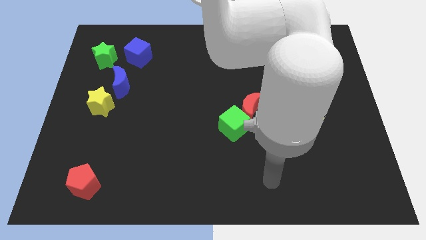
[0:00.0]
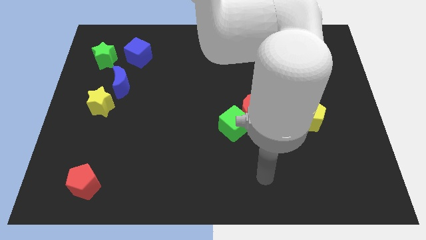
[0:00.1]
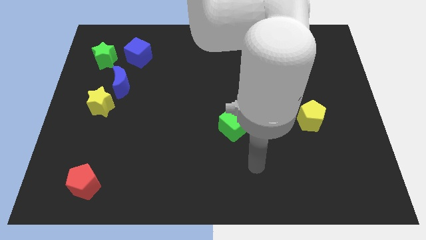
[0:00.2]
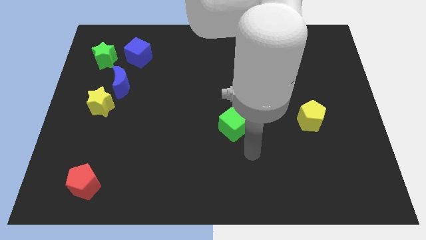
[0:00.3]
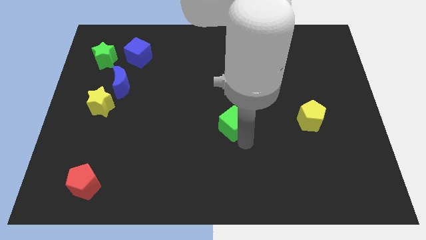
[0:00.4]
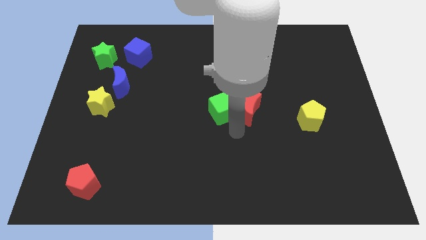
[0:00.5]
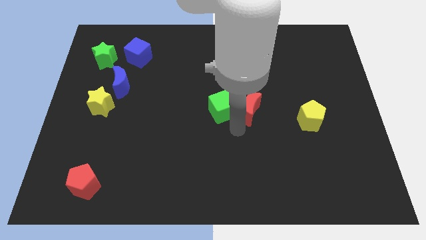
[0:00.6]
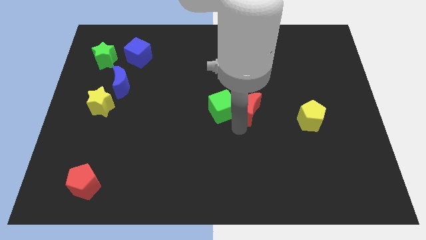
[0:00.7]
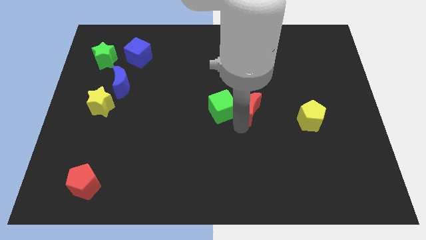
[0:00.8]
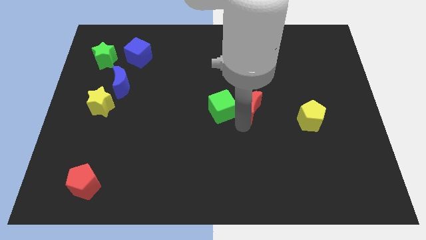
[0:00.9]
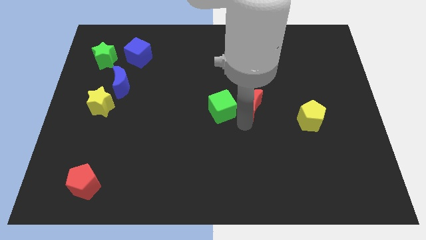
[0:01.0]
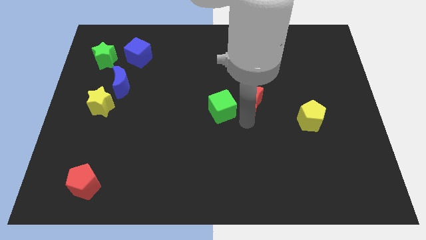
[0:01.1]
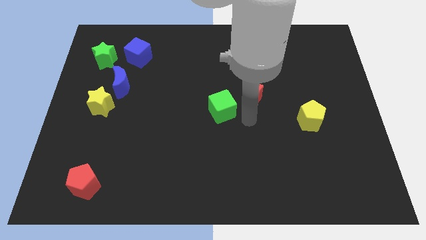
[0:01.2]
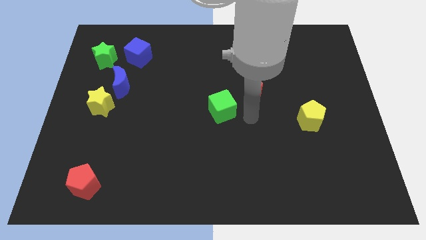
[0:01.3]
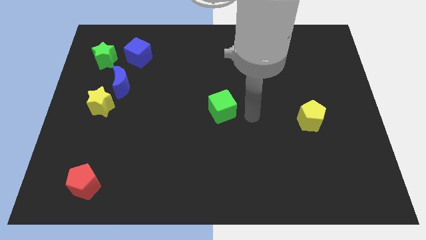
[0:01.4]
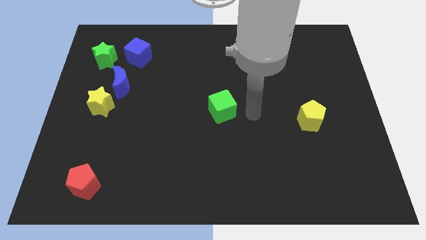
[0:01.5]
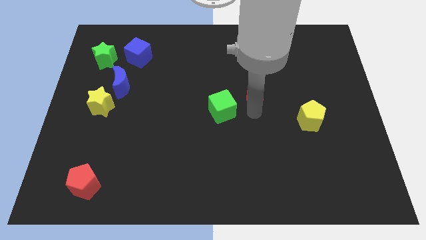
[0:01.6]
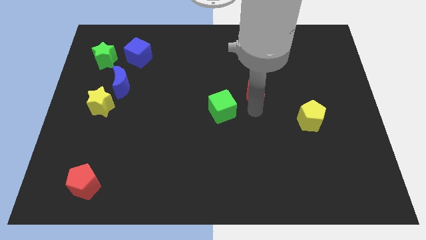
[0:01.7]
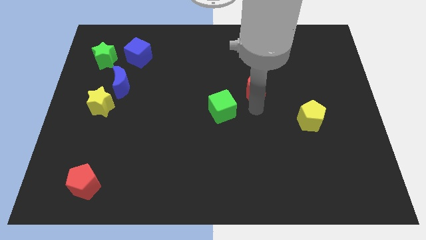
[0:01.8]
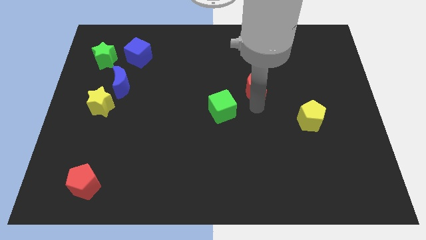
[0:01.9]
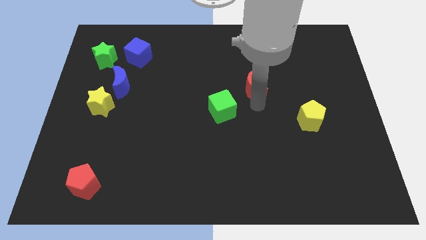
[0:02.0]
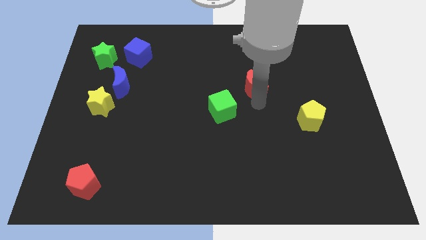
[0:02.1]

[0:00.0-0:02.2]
pull the red moon apart from the green cube

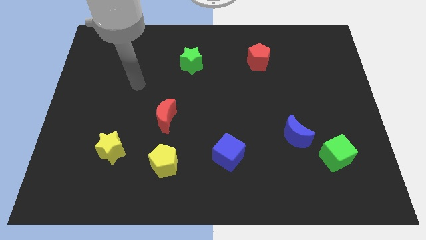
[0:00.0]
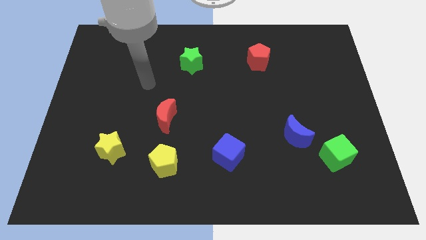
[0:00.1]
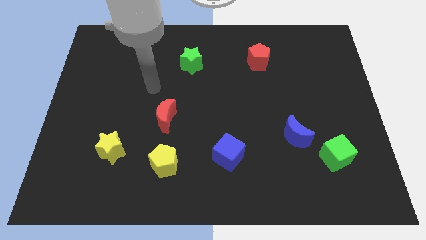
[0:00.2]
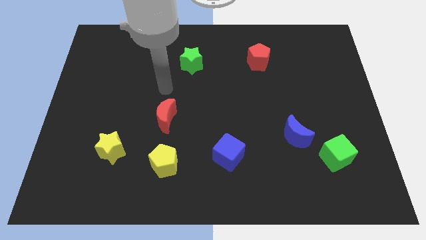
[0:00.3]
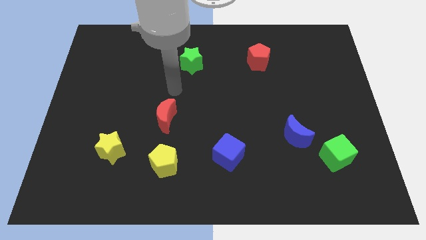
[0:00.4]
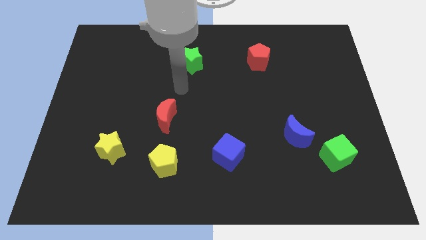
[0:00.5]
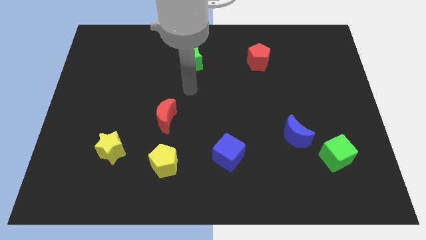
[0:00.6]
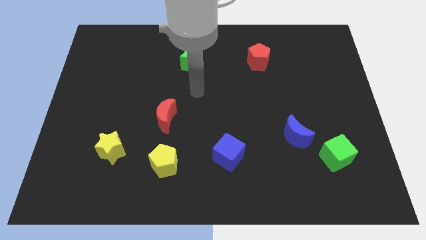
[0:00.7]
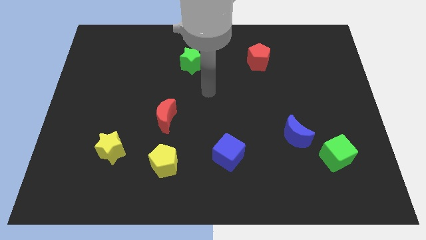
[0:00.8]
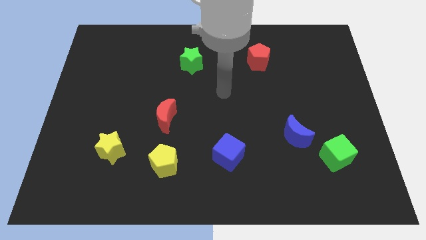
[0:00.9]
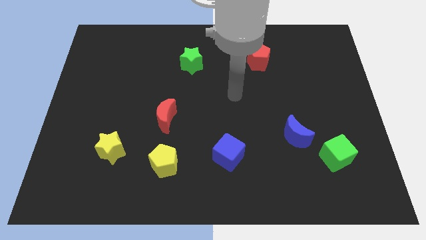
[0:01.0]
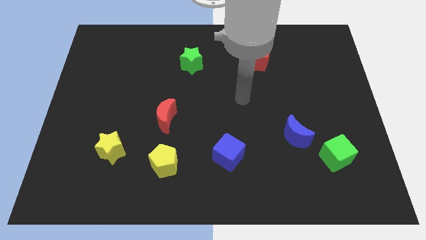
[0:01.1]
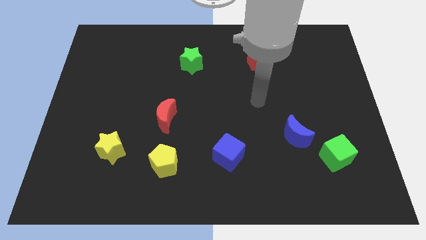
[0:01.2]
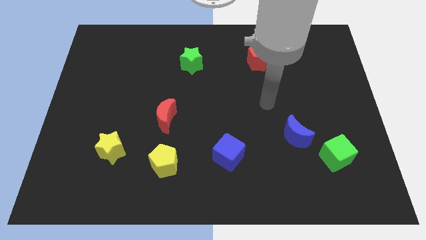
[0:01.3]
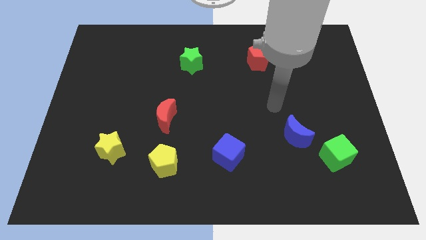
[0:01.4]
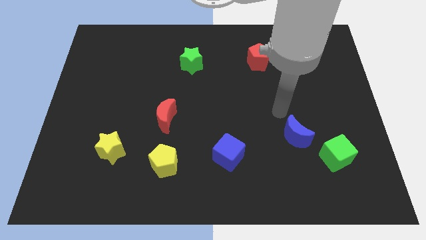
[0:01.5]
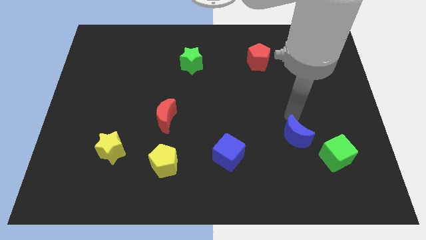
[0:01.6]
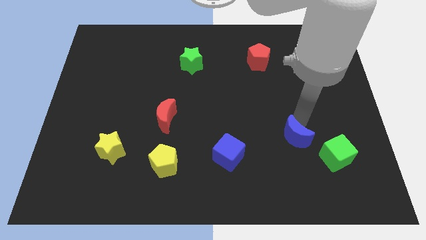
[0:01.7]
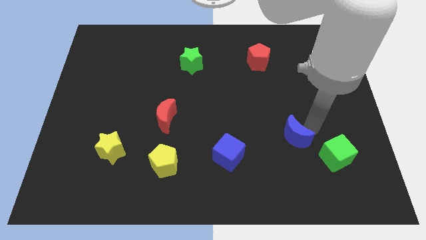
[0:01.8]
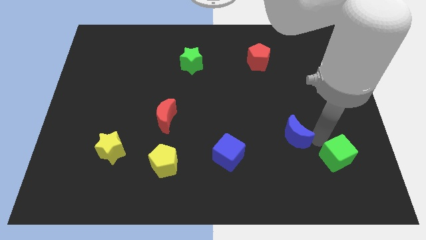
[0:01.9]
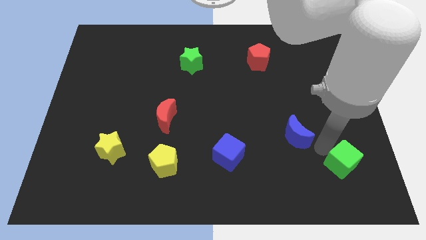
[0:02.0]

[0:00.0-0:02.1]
move the blue moon away from the green cube

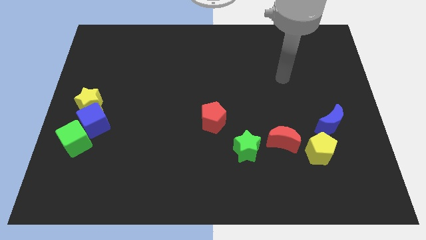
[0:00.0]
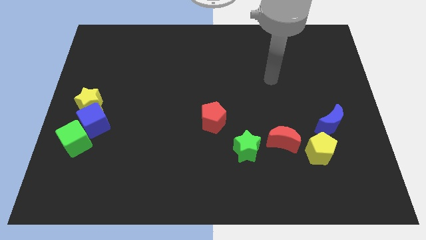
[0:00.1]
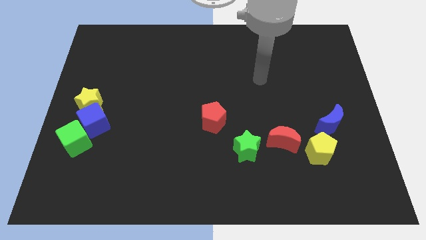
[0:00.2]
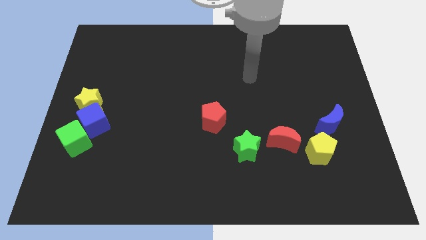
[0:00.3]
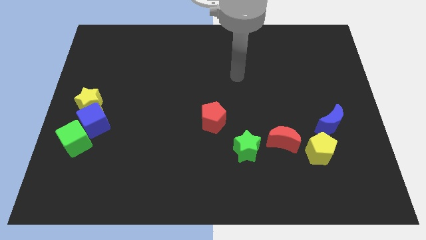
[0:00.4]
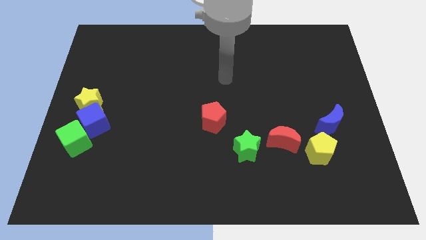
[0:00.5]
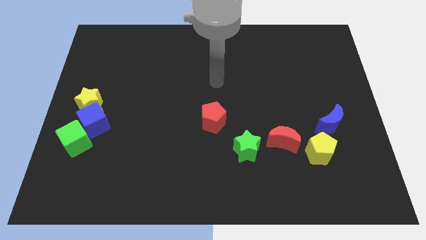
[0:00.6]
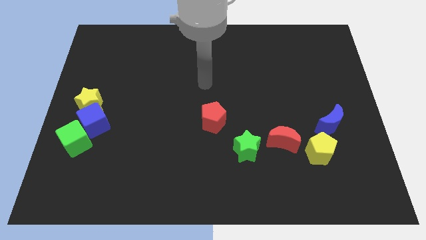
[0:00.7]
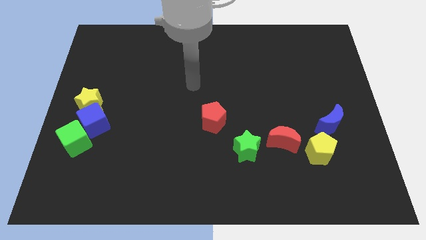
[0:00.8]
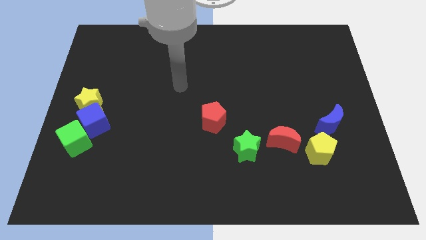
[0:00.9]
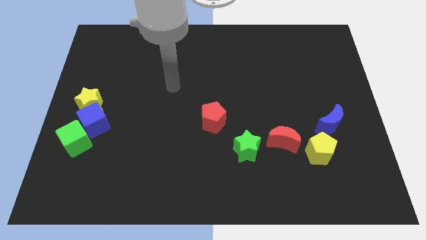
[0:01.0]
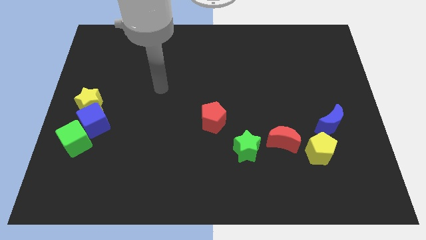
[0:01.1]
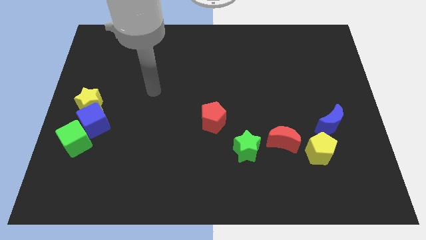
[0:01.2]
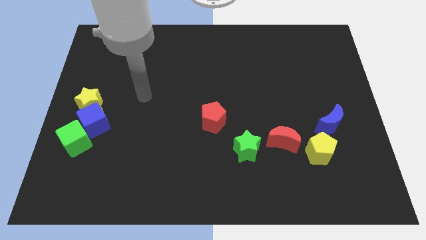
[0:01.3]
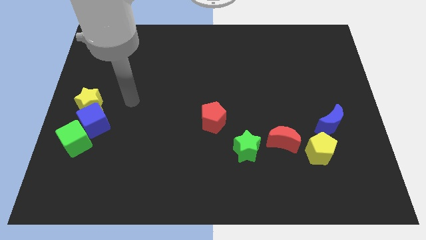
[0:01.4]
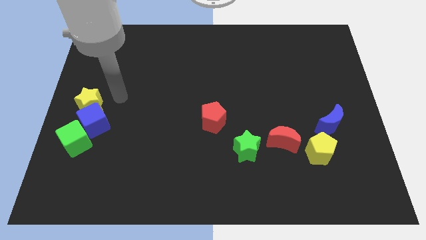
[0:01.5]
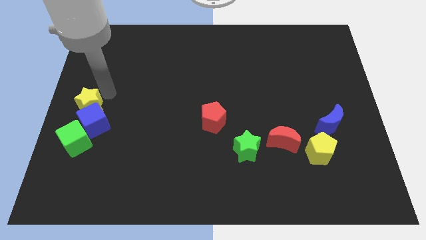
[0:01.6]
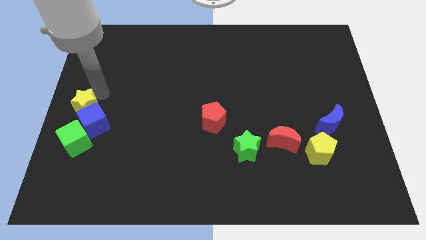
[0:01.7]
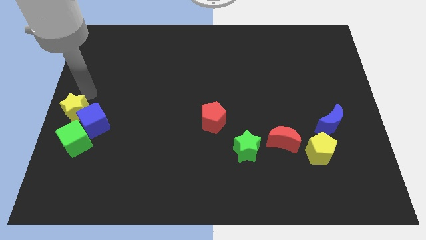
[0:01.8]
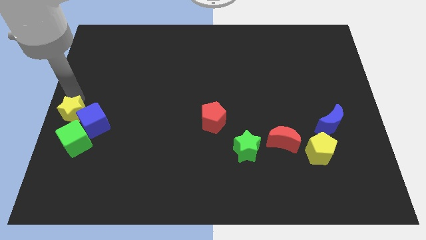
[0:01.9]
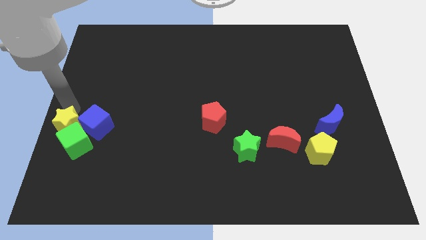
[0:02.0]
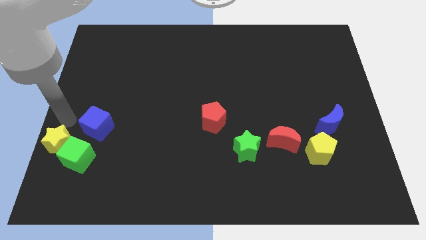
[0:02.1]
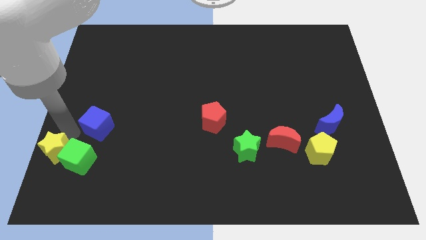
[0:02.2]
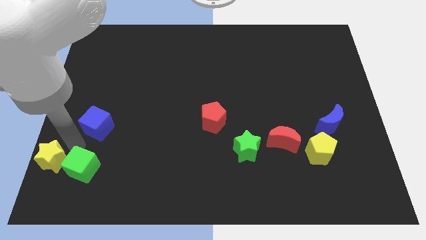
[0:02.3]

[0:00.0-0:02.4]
pull the blue cube apart from the yellow star and green cube

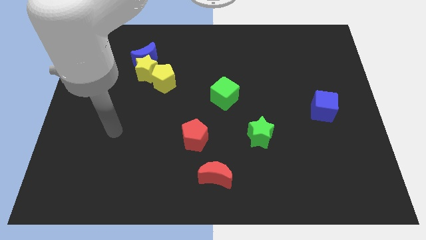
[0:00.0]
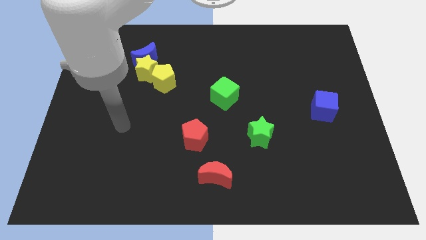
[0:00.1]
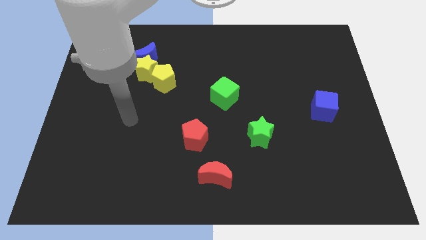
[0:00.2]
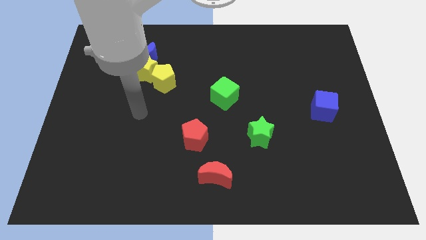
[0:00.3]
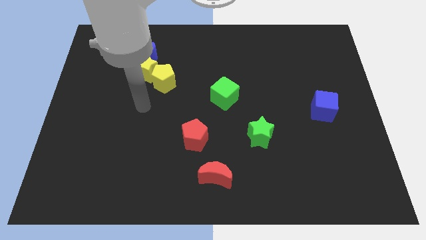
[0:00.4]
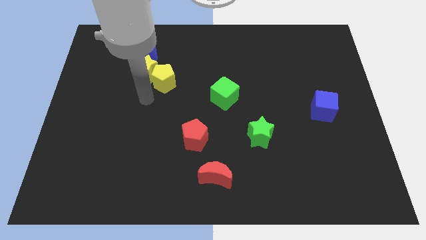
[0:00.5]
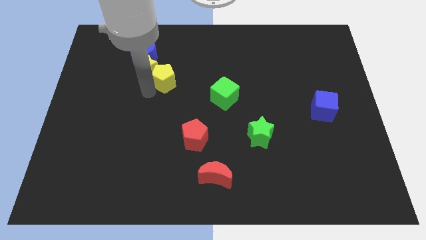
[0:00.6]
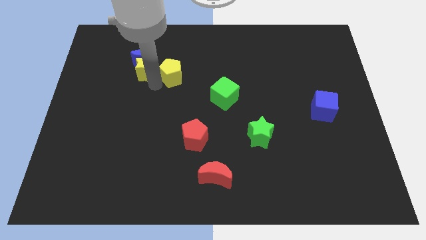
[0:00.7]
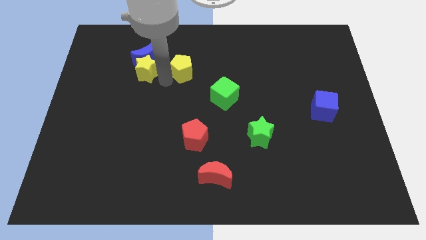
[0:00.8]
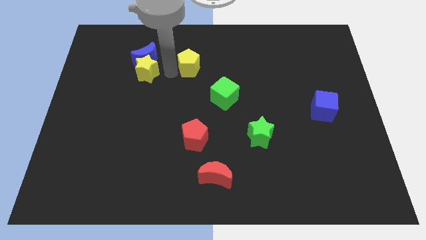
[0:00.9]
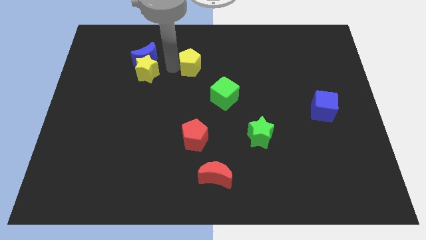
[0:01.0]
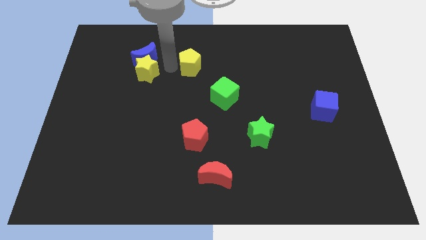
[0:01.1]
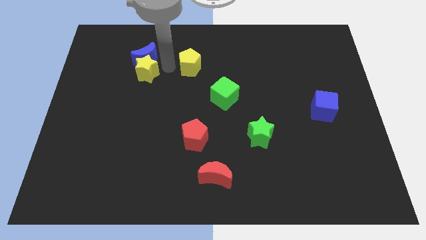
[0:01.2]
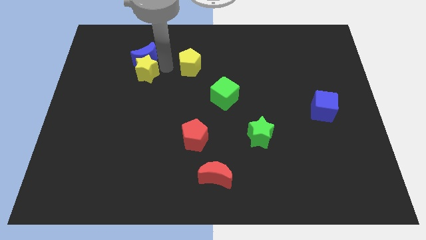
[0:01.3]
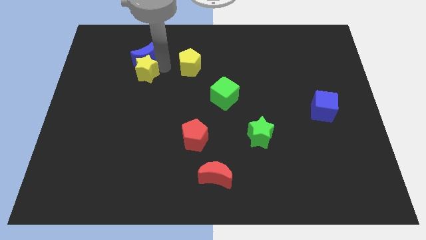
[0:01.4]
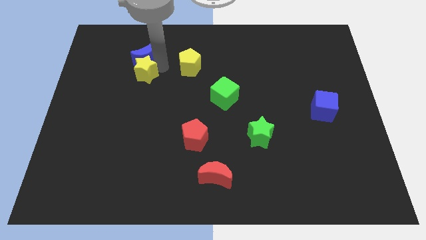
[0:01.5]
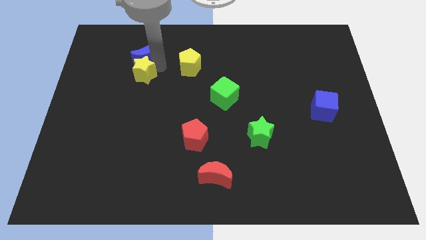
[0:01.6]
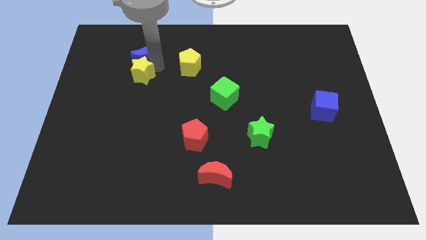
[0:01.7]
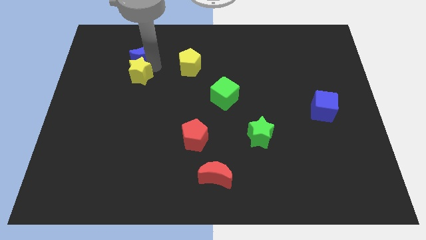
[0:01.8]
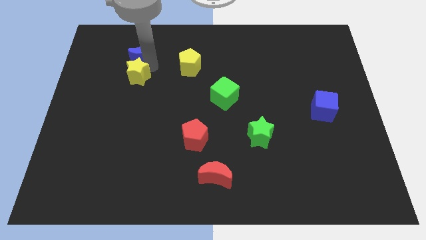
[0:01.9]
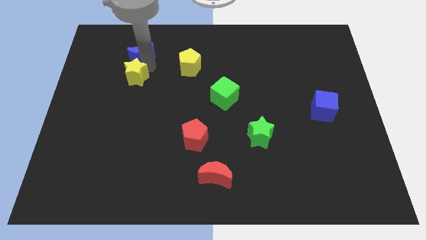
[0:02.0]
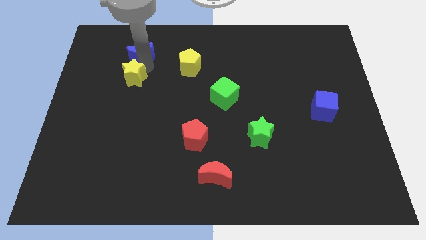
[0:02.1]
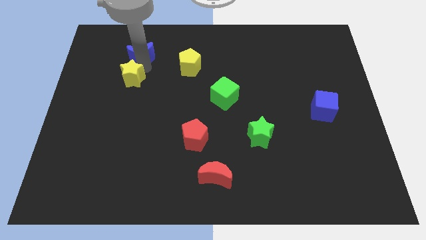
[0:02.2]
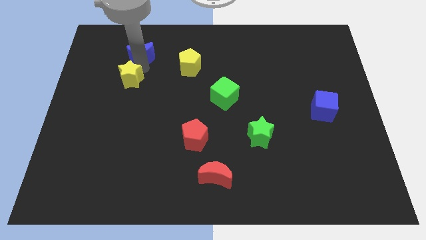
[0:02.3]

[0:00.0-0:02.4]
separate the yellow star from the blue moon and yellow pentagon
